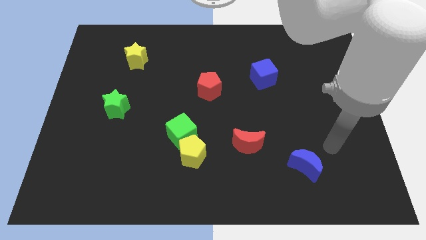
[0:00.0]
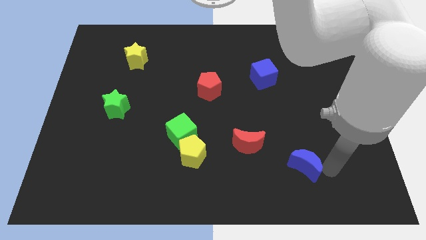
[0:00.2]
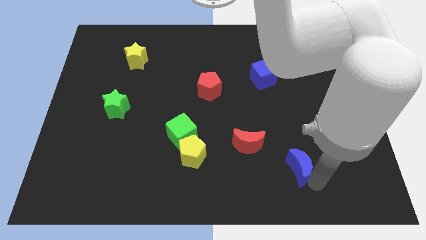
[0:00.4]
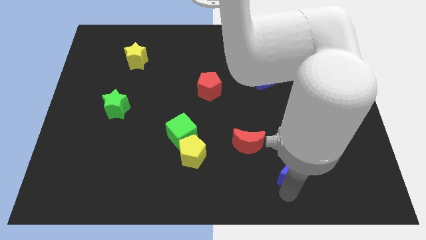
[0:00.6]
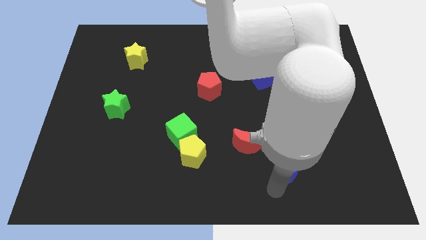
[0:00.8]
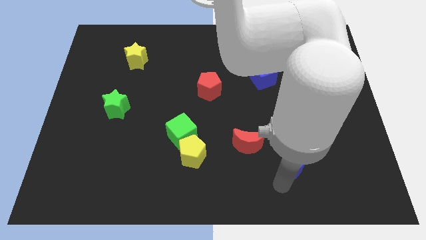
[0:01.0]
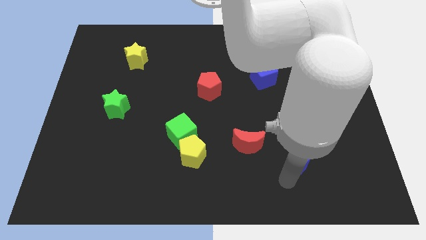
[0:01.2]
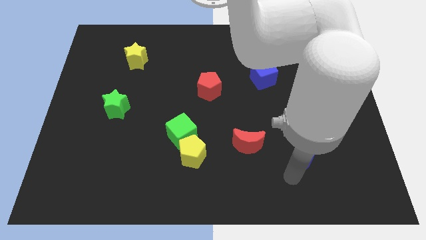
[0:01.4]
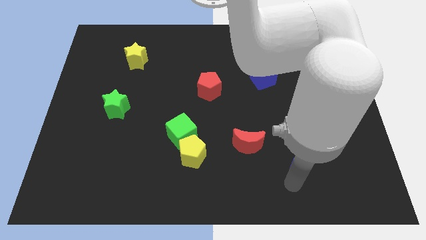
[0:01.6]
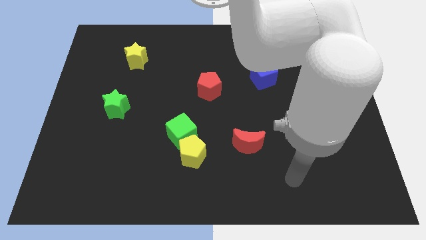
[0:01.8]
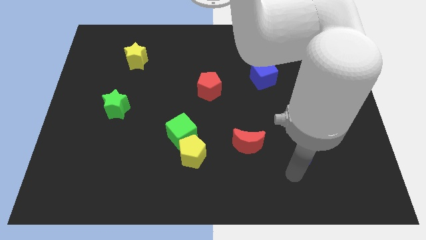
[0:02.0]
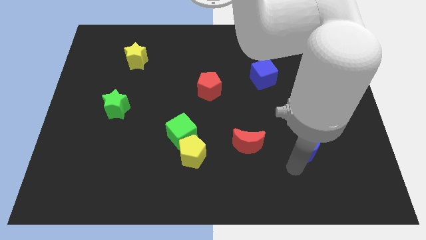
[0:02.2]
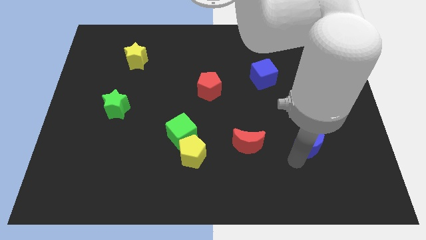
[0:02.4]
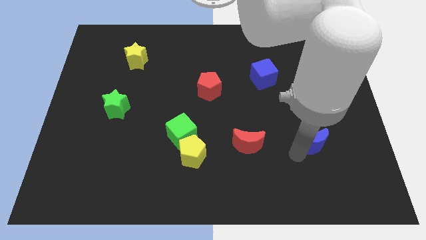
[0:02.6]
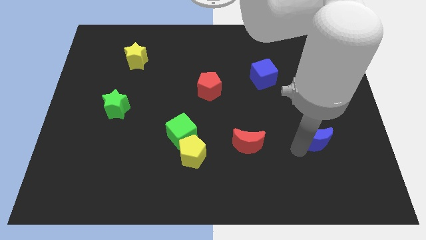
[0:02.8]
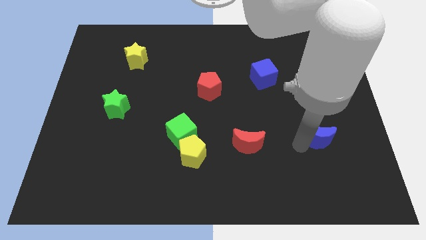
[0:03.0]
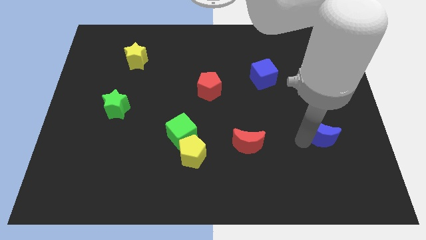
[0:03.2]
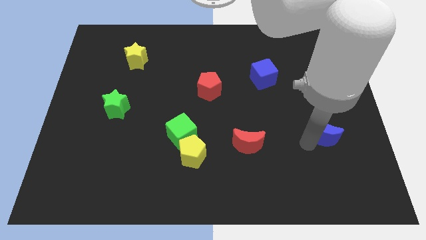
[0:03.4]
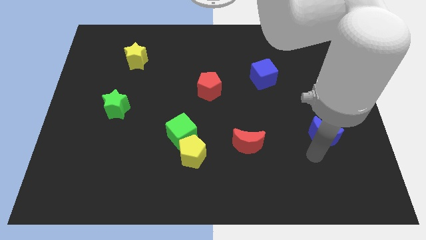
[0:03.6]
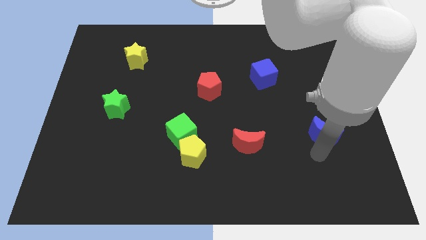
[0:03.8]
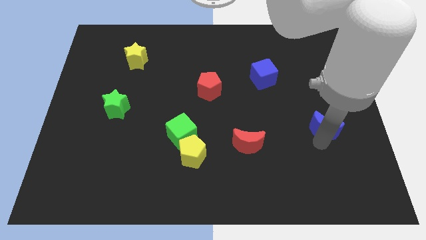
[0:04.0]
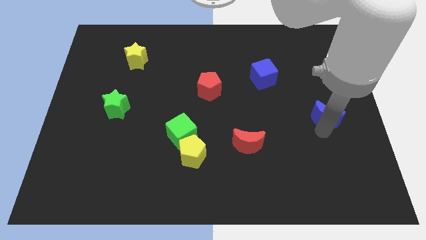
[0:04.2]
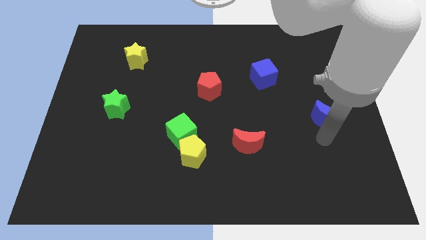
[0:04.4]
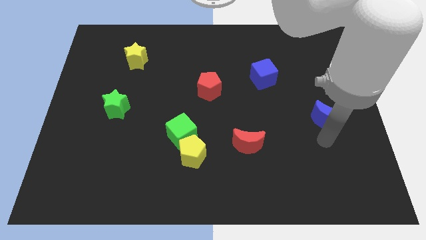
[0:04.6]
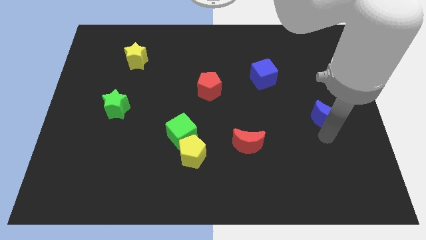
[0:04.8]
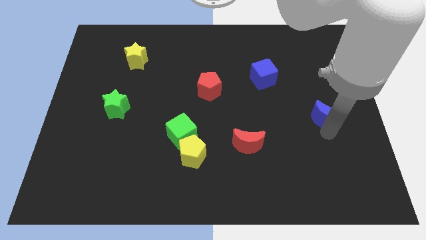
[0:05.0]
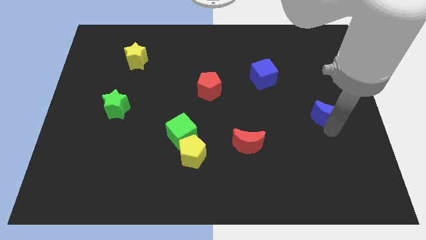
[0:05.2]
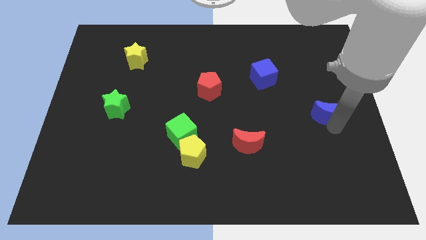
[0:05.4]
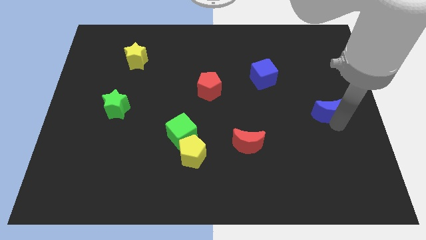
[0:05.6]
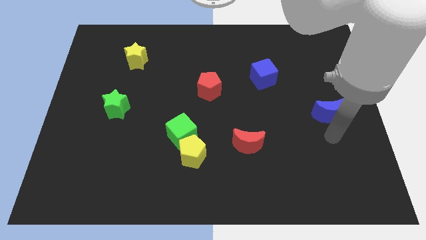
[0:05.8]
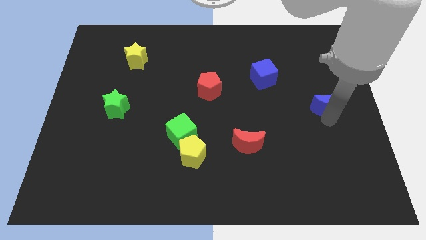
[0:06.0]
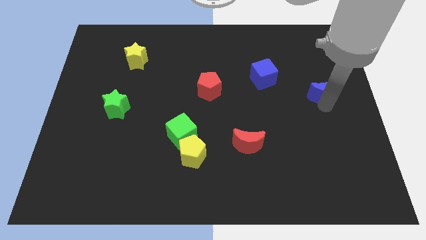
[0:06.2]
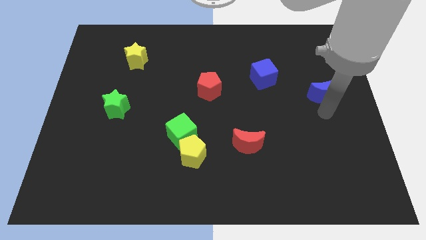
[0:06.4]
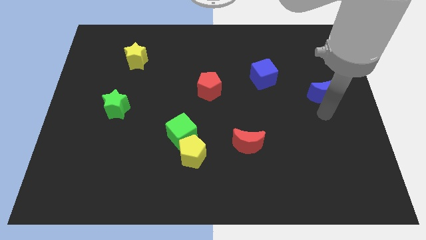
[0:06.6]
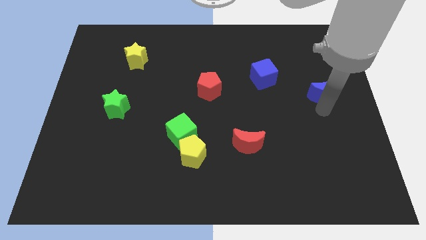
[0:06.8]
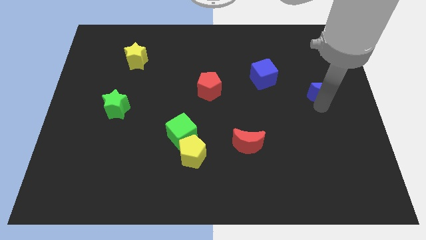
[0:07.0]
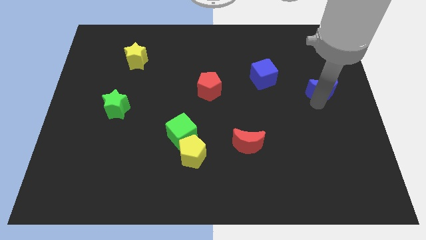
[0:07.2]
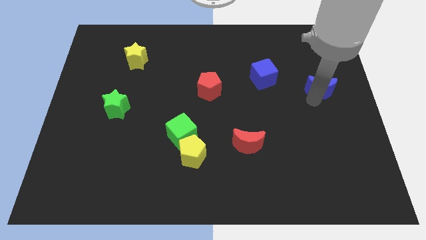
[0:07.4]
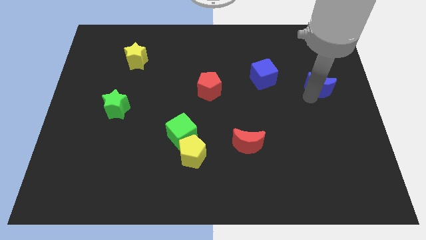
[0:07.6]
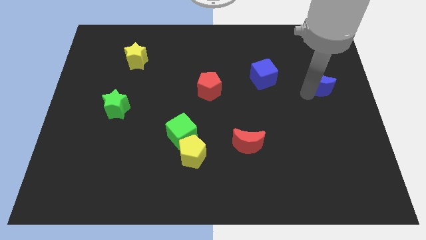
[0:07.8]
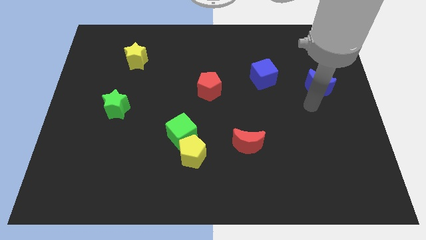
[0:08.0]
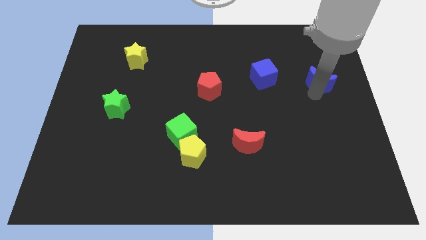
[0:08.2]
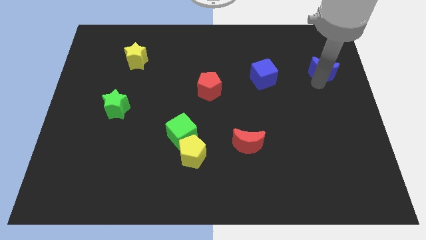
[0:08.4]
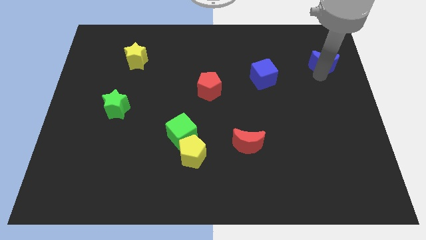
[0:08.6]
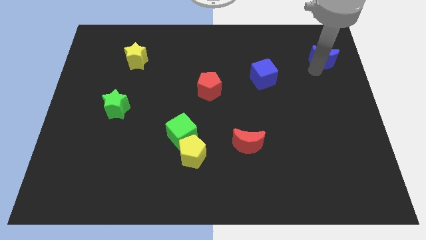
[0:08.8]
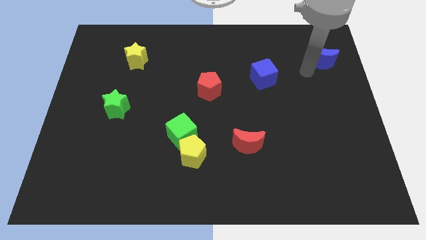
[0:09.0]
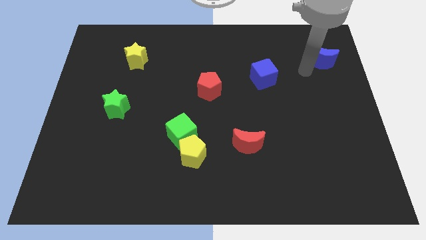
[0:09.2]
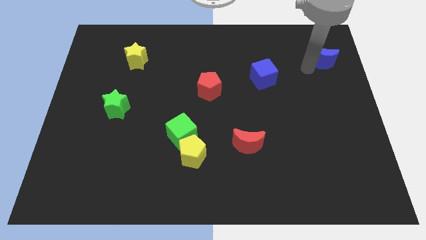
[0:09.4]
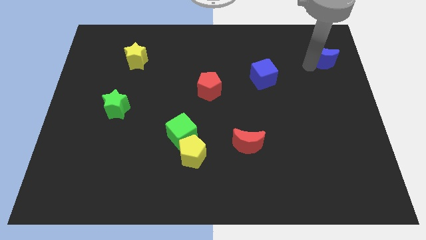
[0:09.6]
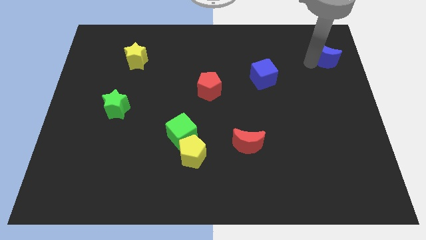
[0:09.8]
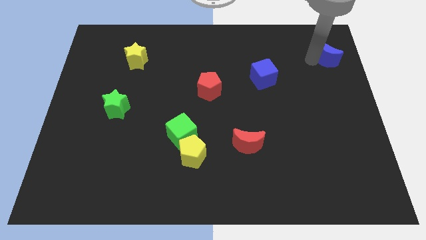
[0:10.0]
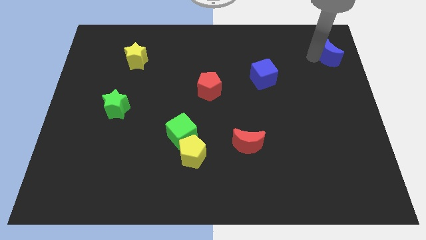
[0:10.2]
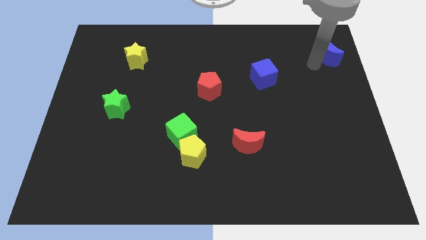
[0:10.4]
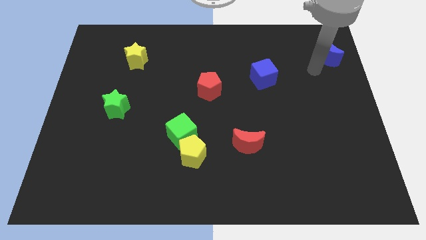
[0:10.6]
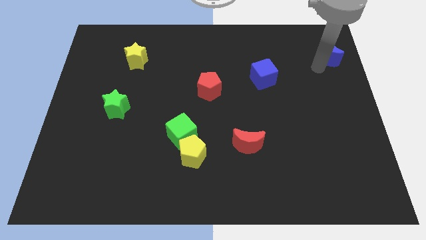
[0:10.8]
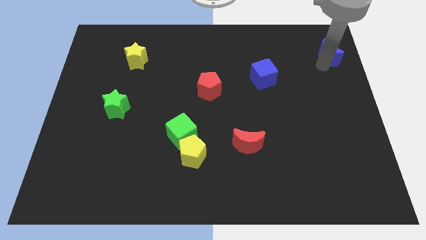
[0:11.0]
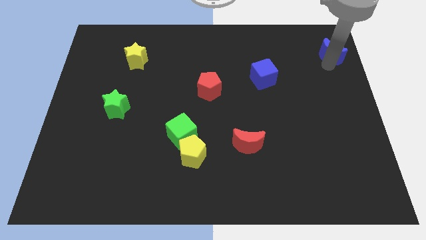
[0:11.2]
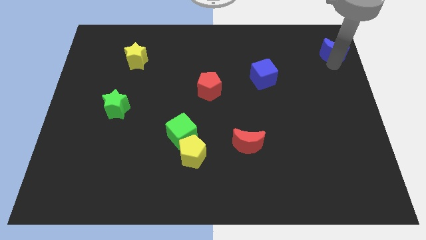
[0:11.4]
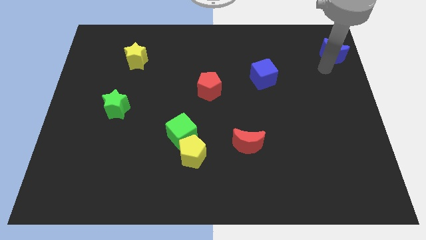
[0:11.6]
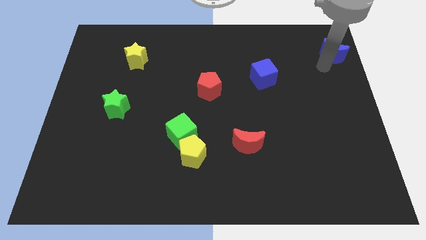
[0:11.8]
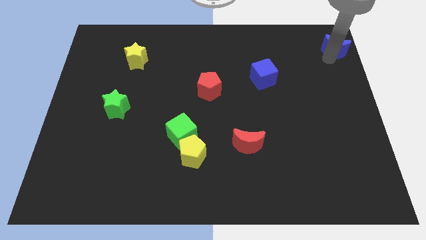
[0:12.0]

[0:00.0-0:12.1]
put the blue moon to the upper right corner

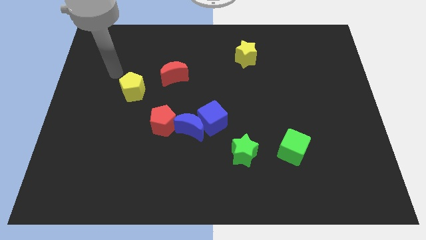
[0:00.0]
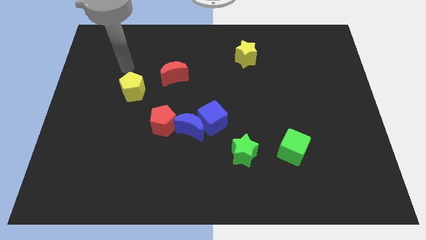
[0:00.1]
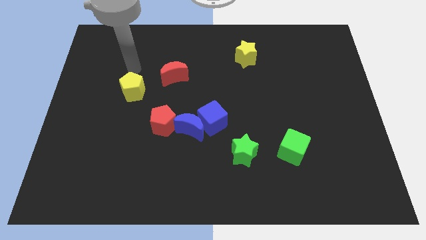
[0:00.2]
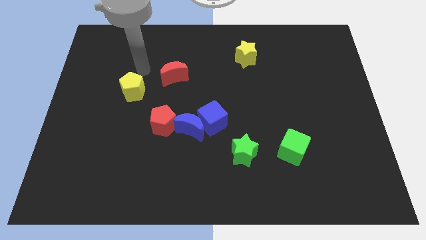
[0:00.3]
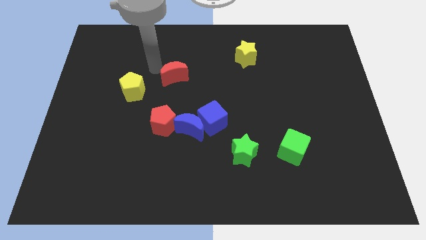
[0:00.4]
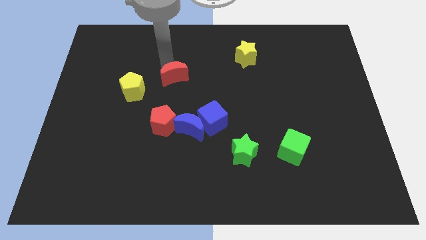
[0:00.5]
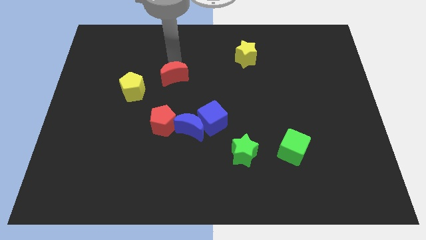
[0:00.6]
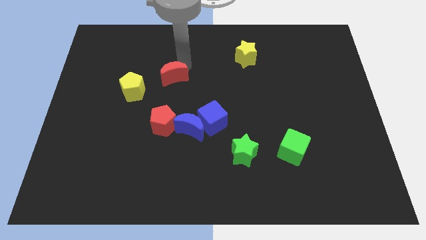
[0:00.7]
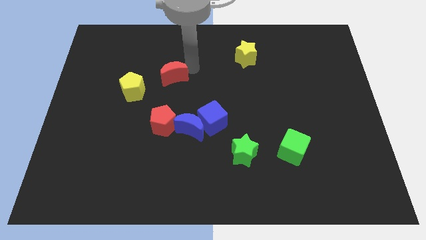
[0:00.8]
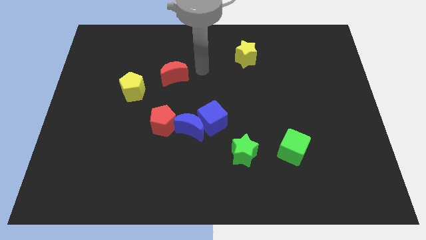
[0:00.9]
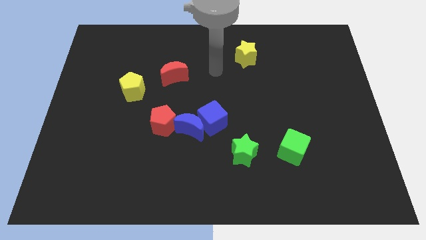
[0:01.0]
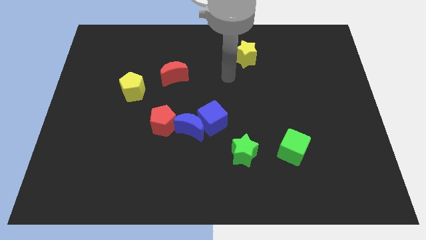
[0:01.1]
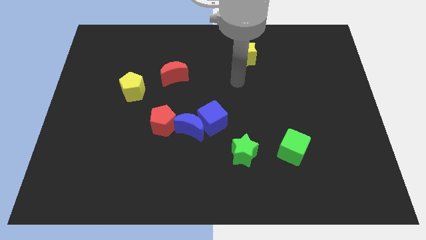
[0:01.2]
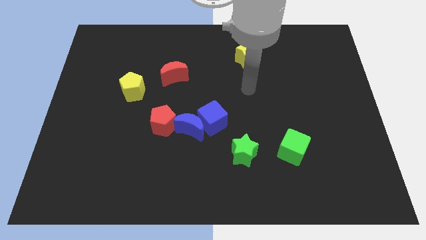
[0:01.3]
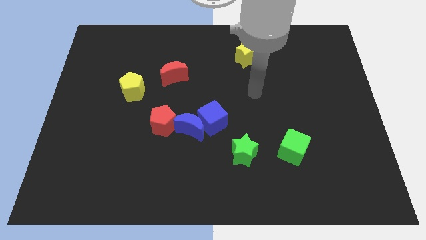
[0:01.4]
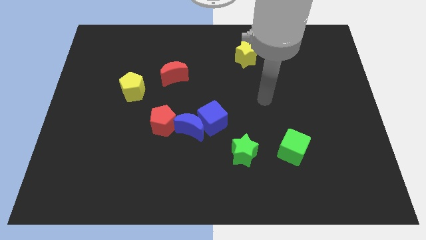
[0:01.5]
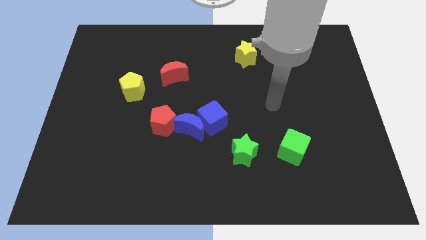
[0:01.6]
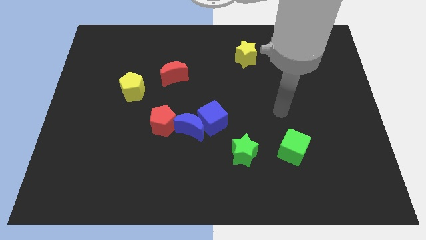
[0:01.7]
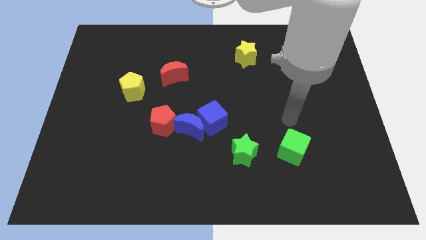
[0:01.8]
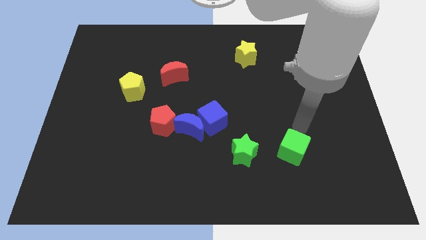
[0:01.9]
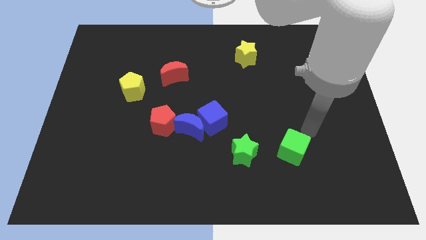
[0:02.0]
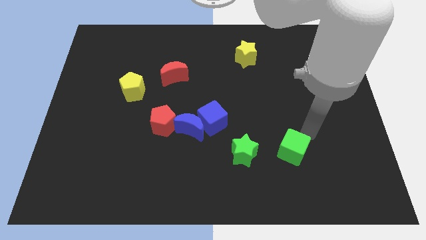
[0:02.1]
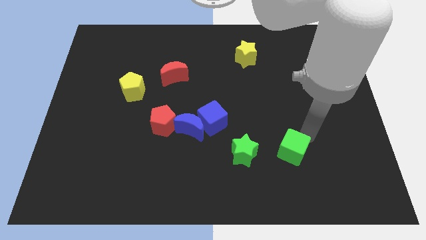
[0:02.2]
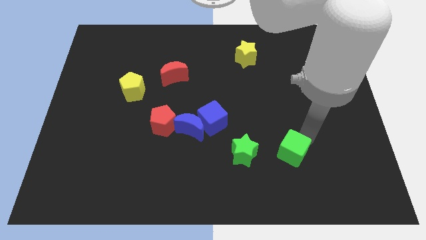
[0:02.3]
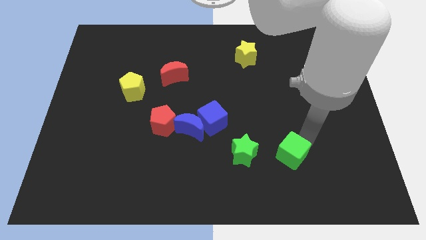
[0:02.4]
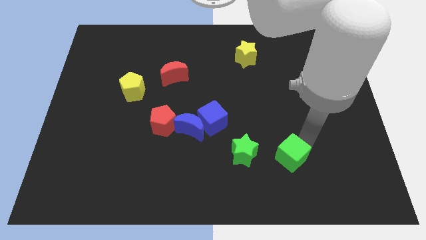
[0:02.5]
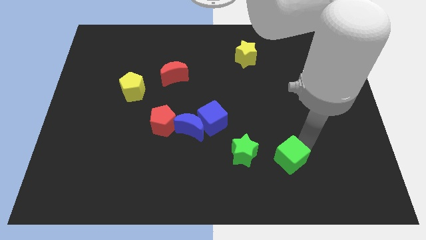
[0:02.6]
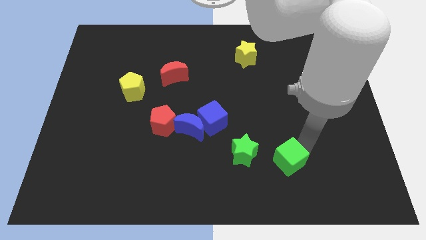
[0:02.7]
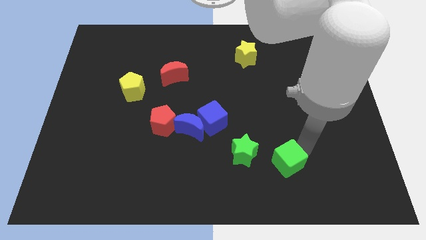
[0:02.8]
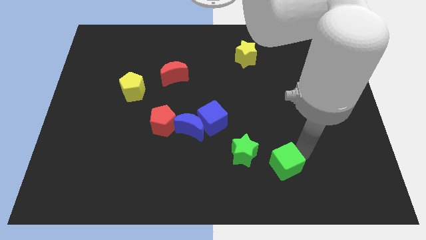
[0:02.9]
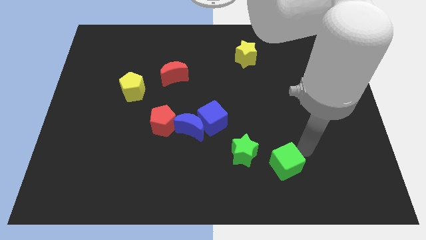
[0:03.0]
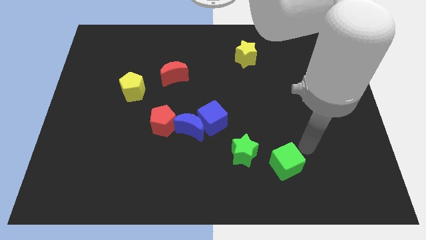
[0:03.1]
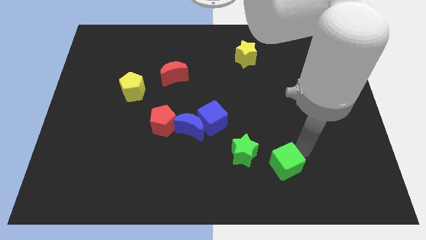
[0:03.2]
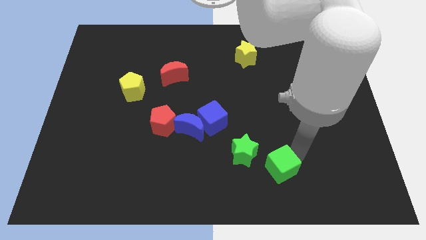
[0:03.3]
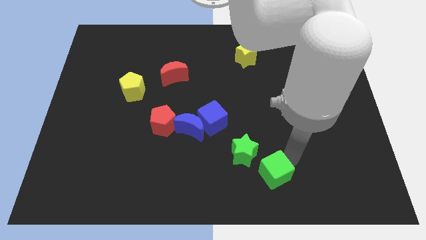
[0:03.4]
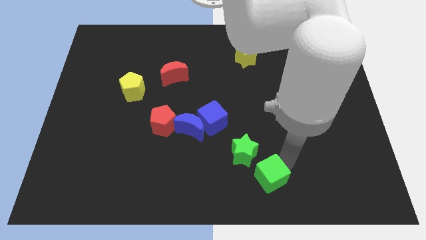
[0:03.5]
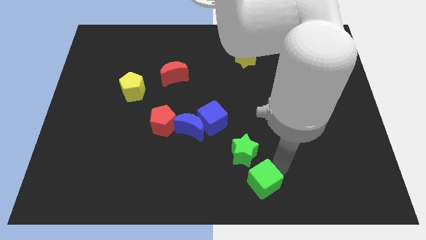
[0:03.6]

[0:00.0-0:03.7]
move the green cube to the bottom side
